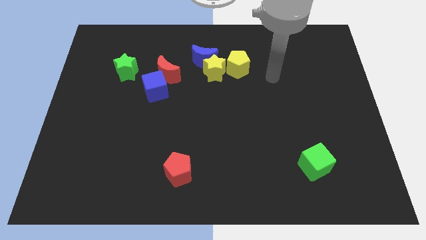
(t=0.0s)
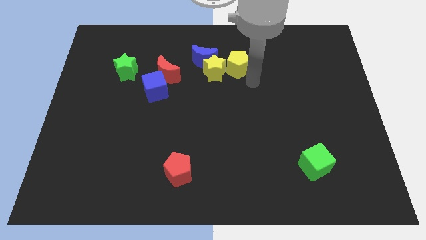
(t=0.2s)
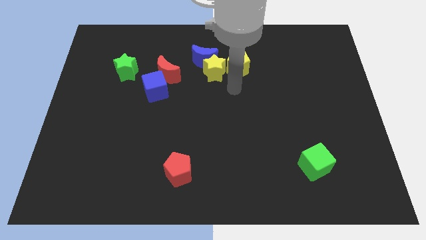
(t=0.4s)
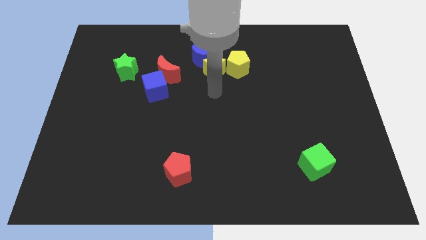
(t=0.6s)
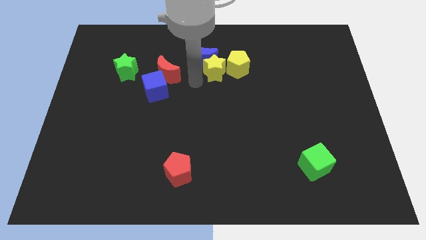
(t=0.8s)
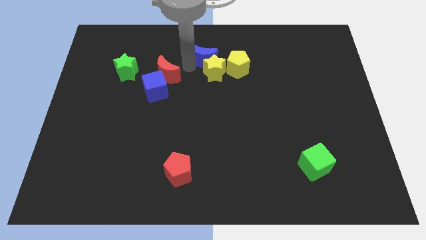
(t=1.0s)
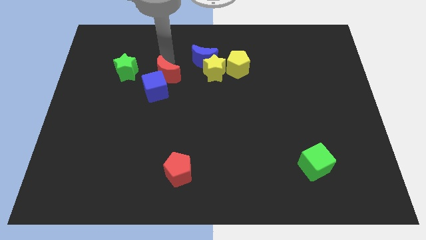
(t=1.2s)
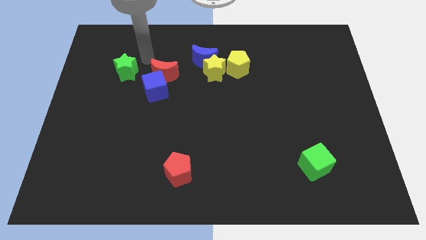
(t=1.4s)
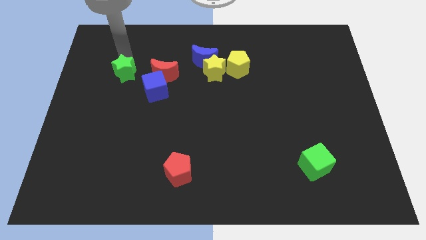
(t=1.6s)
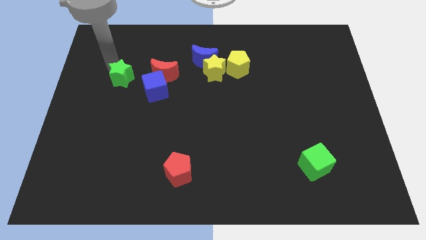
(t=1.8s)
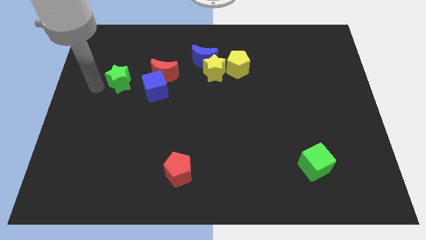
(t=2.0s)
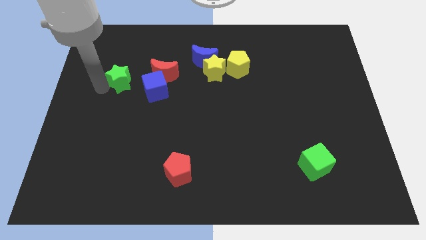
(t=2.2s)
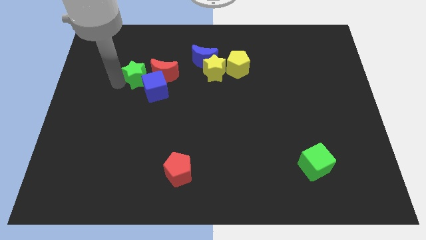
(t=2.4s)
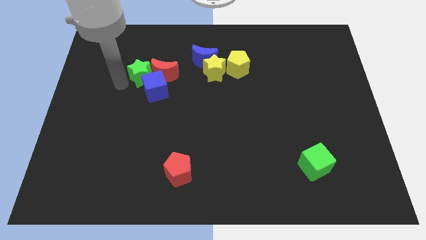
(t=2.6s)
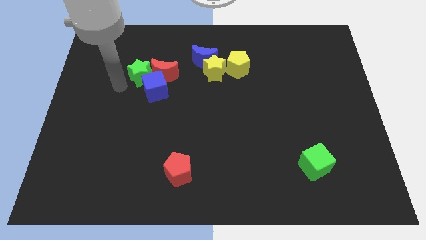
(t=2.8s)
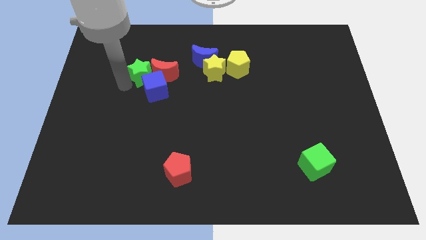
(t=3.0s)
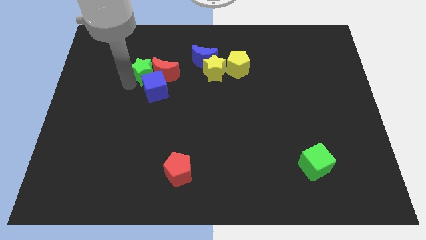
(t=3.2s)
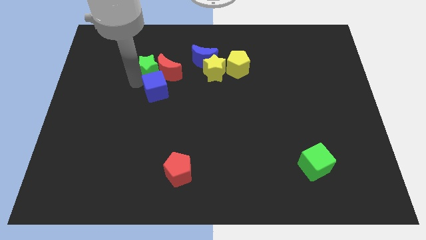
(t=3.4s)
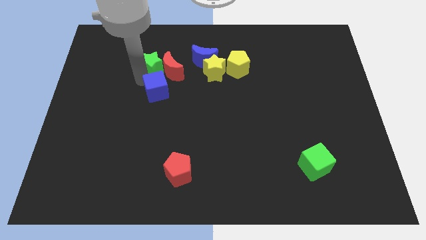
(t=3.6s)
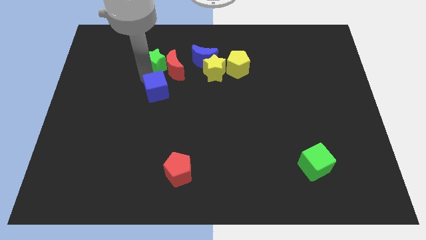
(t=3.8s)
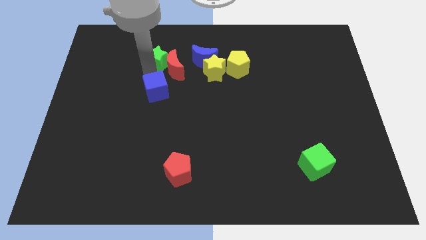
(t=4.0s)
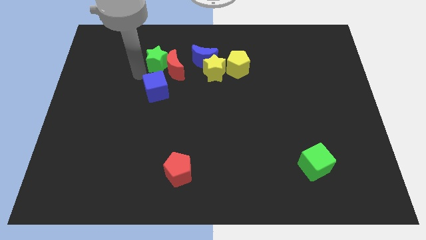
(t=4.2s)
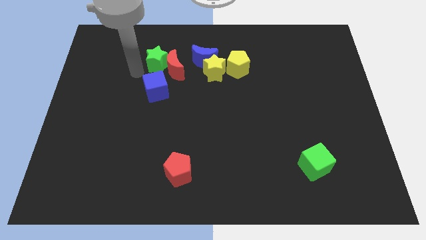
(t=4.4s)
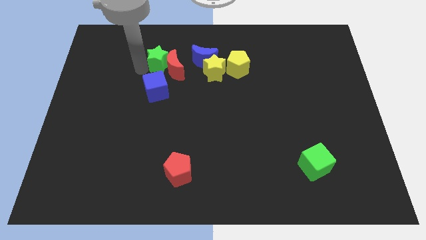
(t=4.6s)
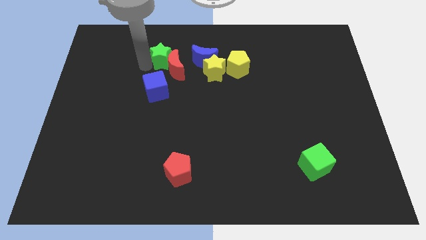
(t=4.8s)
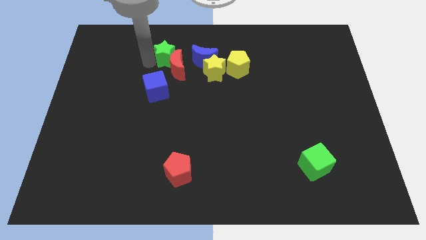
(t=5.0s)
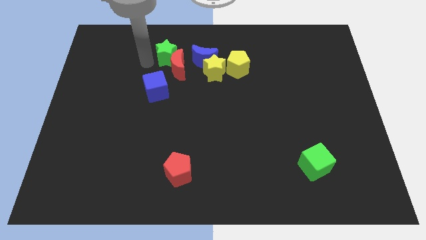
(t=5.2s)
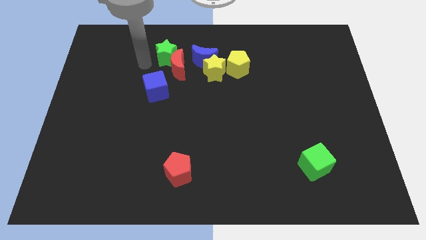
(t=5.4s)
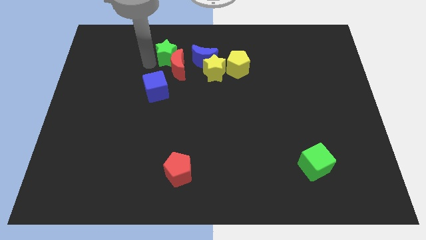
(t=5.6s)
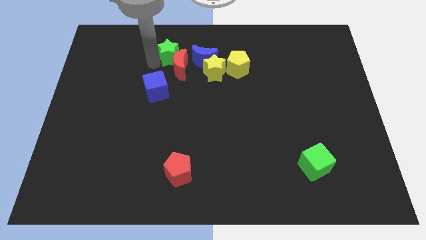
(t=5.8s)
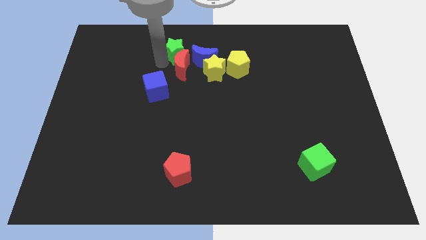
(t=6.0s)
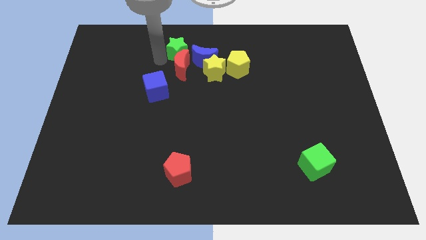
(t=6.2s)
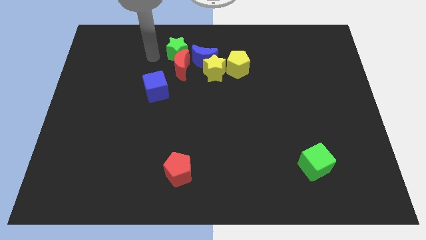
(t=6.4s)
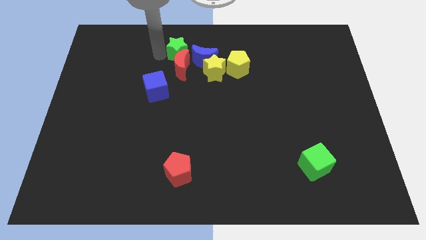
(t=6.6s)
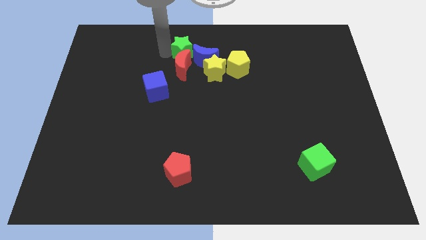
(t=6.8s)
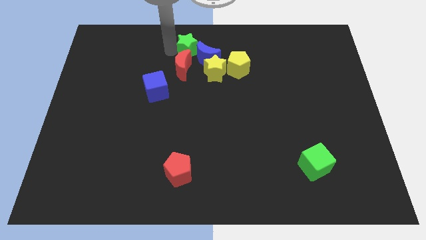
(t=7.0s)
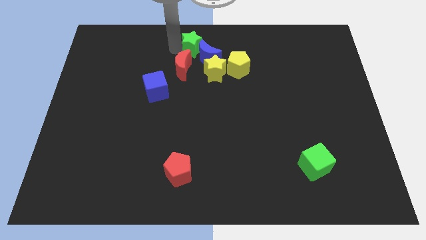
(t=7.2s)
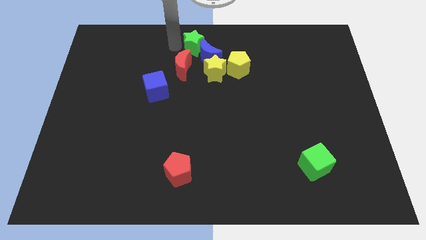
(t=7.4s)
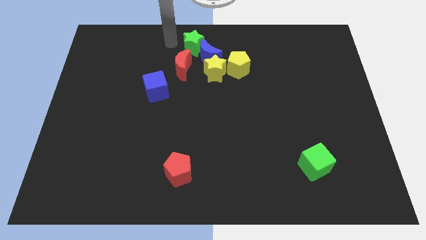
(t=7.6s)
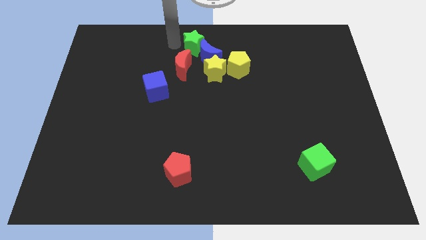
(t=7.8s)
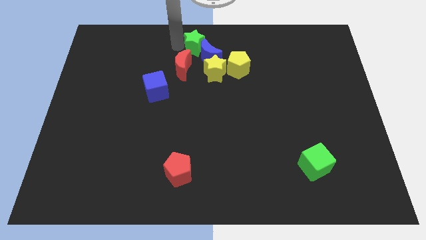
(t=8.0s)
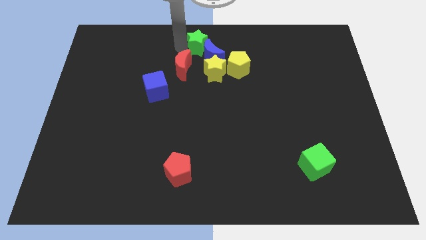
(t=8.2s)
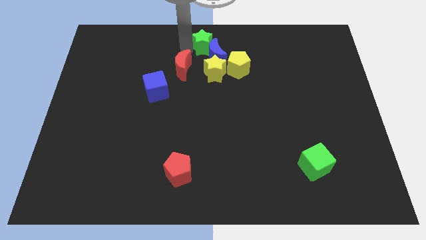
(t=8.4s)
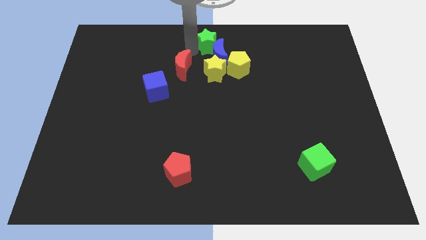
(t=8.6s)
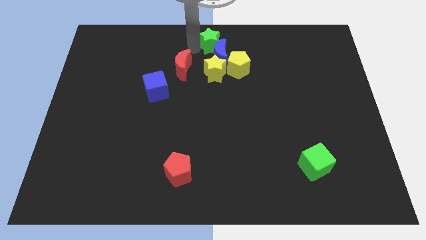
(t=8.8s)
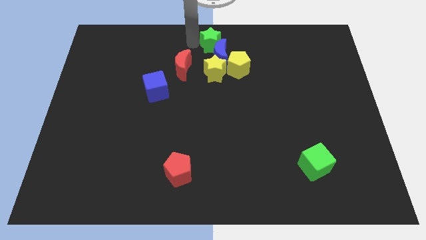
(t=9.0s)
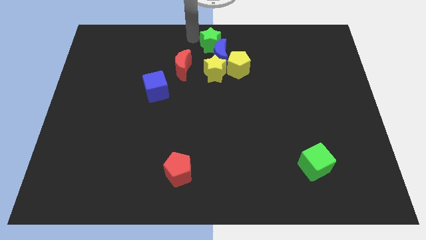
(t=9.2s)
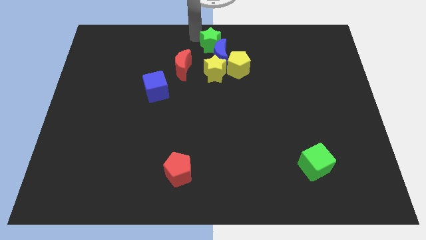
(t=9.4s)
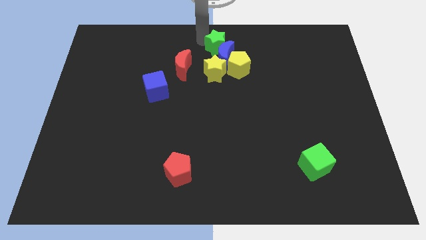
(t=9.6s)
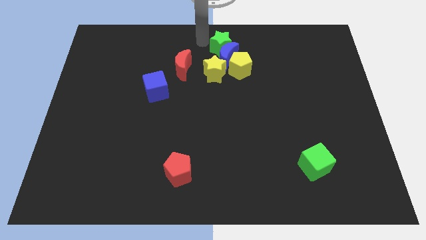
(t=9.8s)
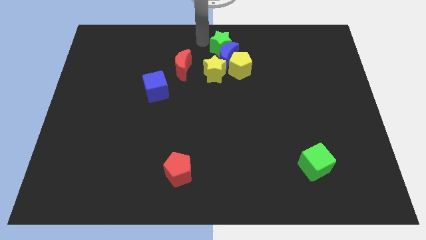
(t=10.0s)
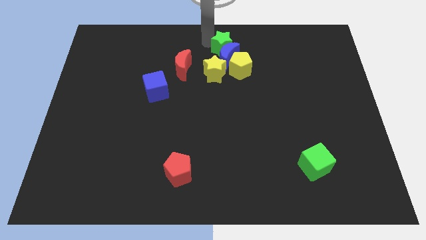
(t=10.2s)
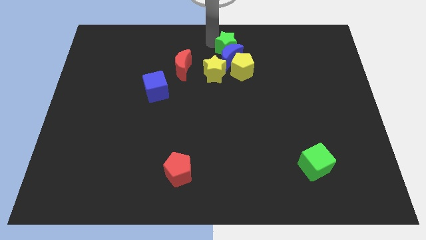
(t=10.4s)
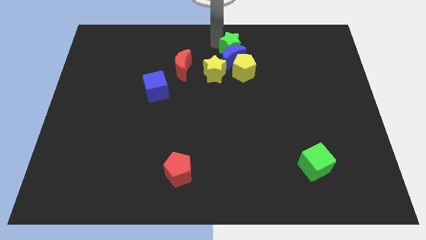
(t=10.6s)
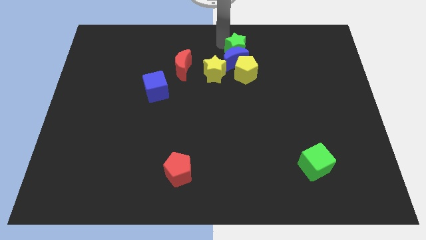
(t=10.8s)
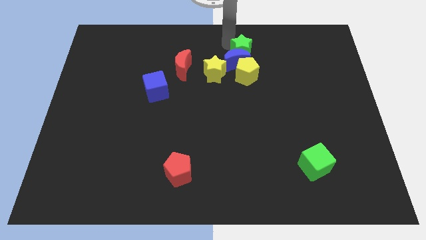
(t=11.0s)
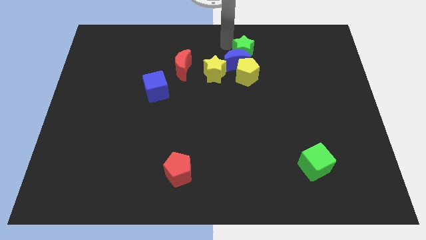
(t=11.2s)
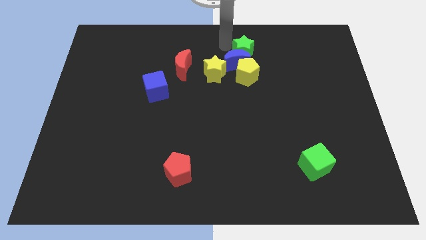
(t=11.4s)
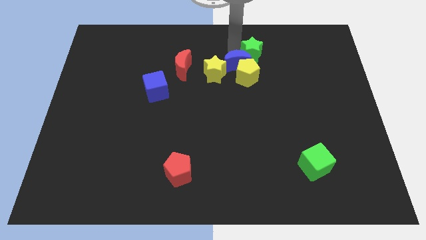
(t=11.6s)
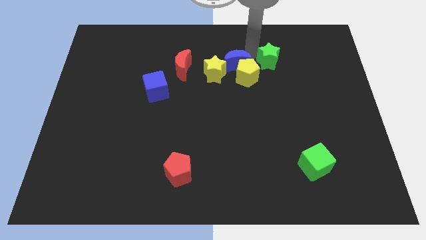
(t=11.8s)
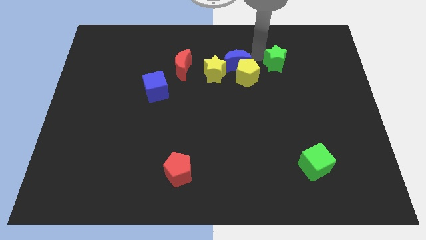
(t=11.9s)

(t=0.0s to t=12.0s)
slide the green star right of the yellow pentagon
